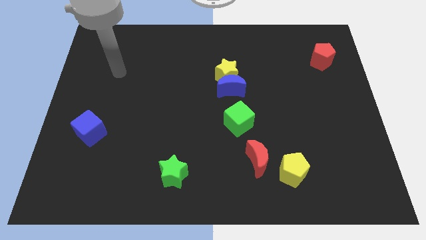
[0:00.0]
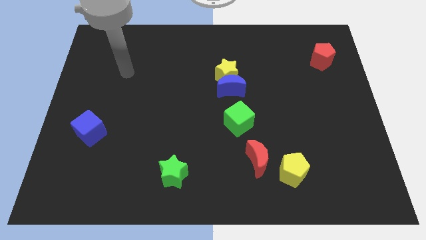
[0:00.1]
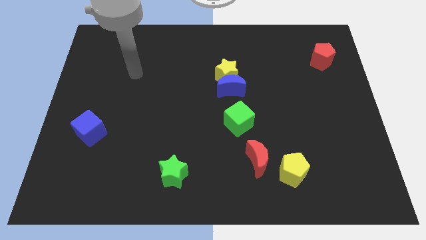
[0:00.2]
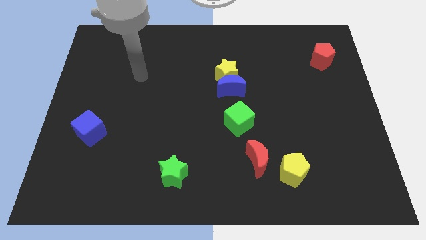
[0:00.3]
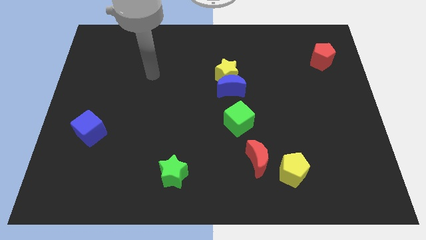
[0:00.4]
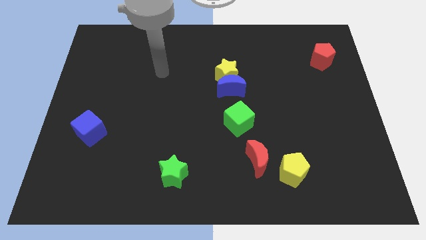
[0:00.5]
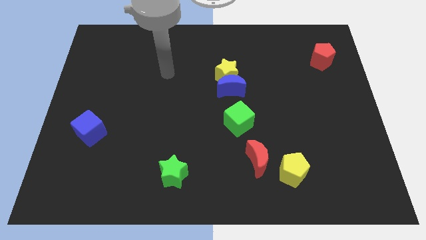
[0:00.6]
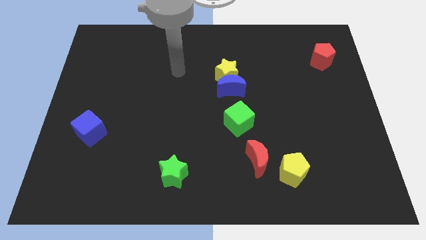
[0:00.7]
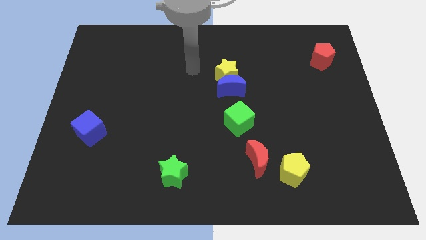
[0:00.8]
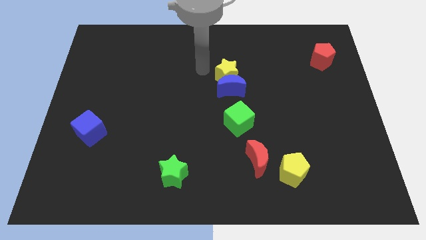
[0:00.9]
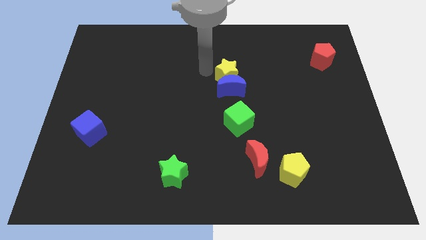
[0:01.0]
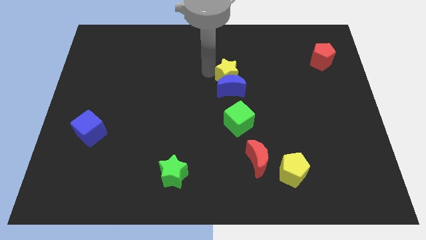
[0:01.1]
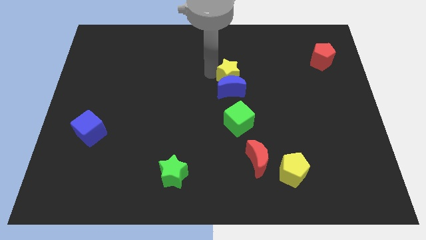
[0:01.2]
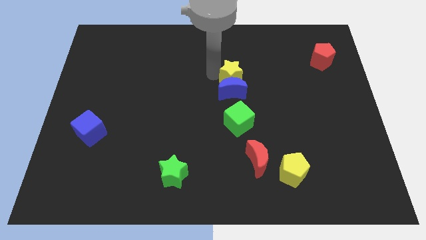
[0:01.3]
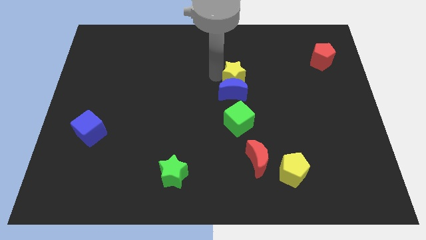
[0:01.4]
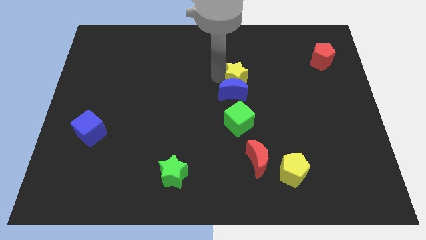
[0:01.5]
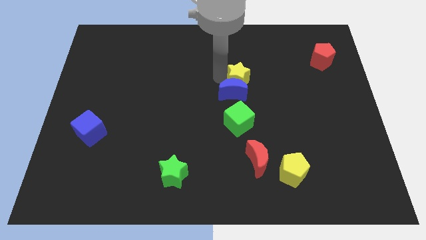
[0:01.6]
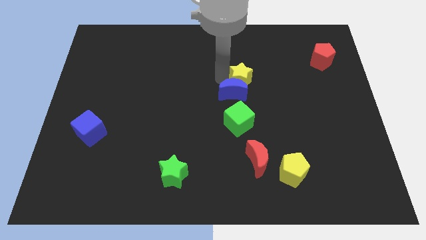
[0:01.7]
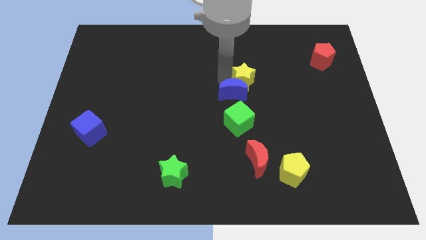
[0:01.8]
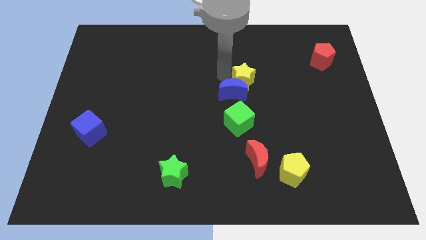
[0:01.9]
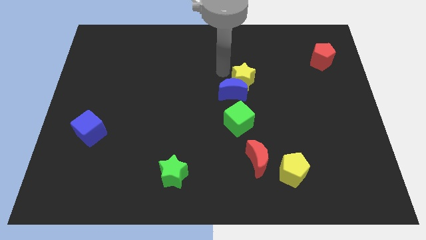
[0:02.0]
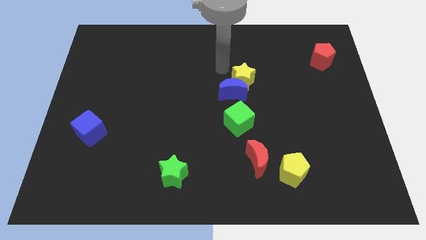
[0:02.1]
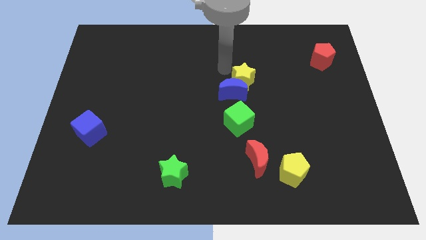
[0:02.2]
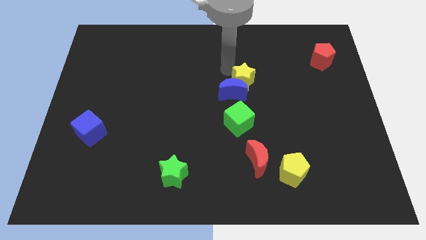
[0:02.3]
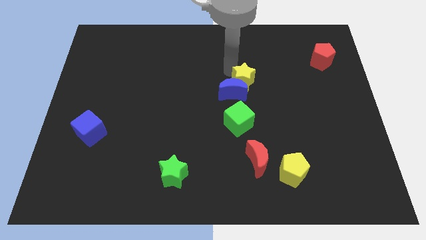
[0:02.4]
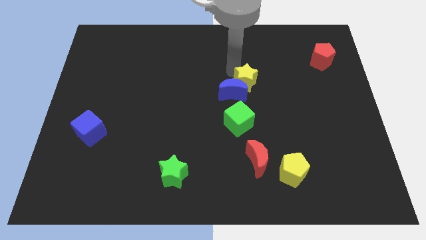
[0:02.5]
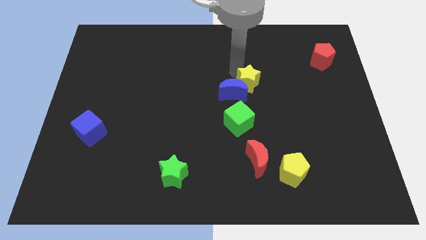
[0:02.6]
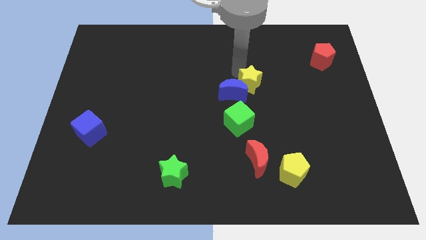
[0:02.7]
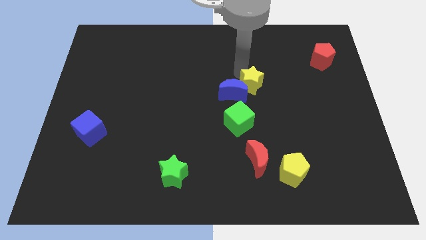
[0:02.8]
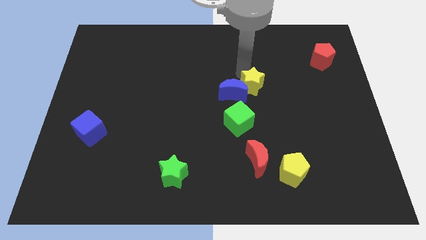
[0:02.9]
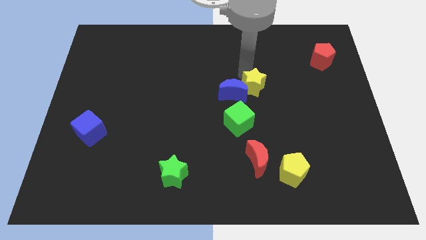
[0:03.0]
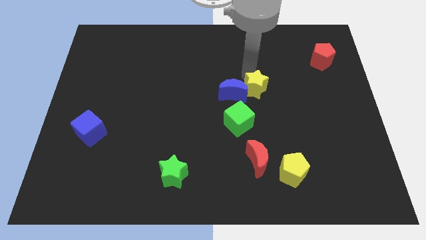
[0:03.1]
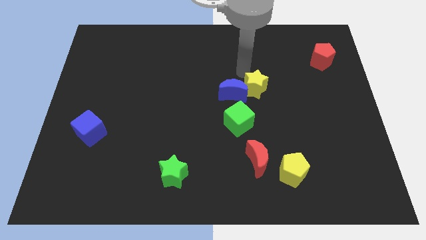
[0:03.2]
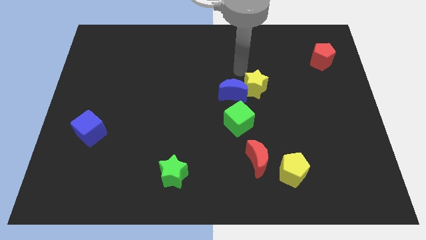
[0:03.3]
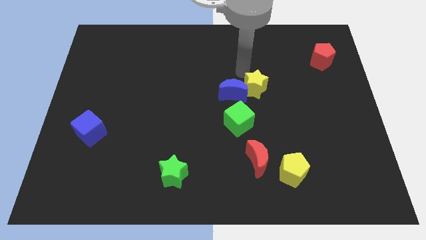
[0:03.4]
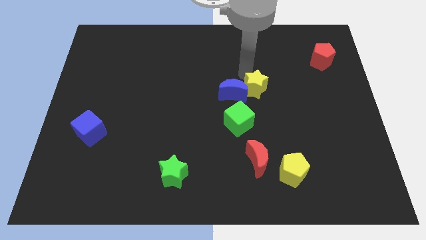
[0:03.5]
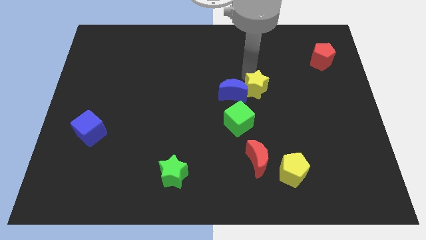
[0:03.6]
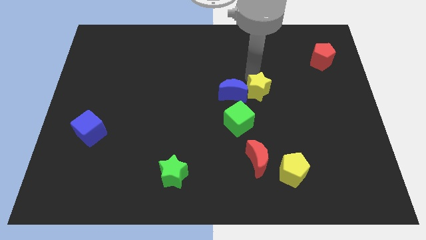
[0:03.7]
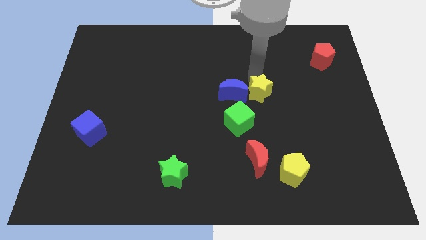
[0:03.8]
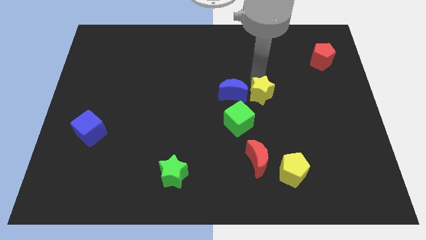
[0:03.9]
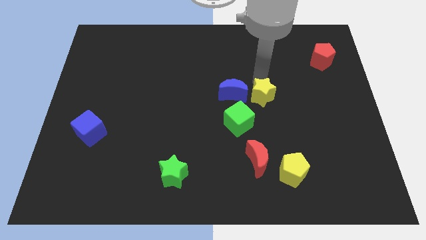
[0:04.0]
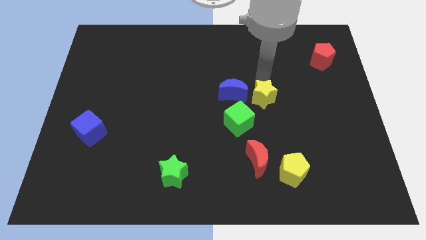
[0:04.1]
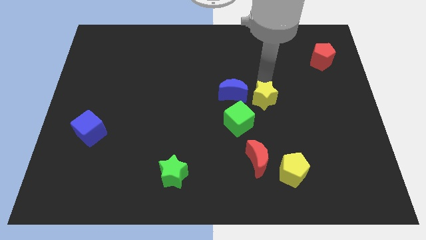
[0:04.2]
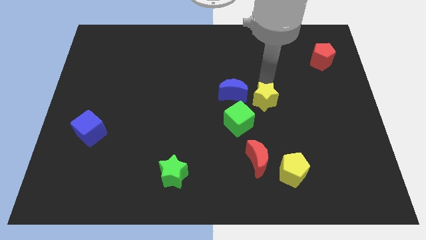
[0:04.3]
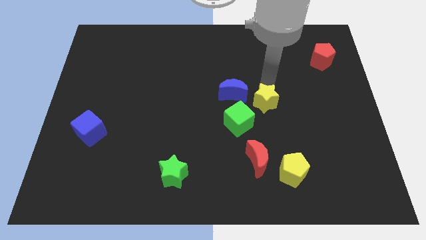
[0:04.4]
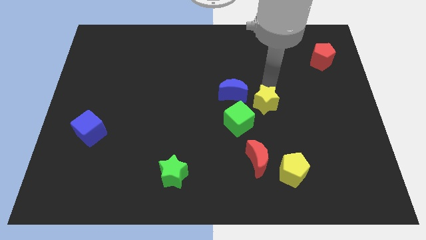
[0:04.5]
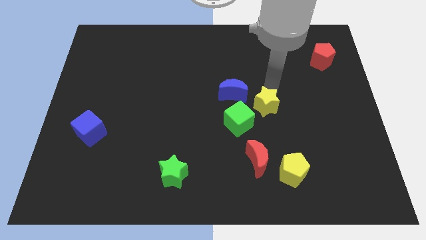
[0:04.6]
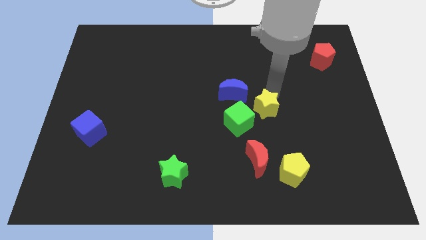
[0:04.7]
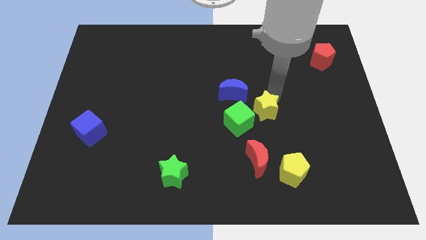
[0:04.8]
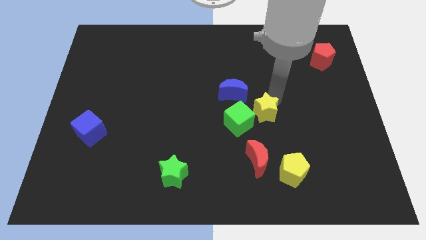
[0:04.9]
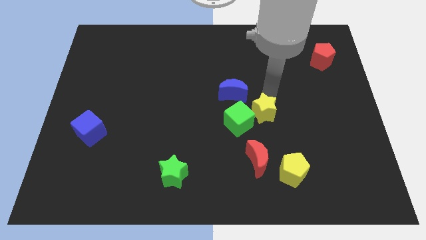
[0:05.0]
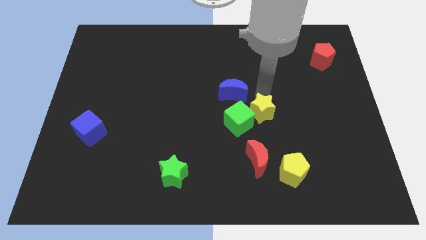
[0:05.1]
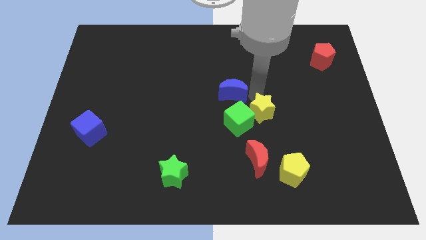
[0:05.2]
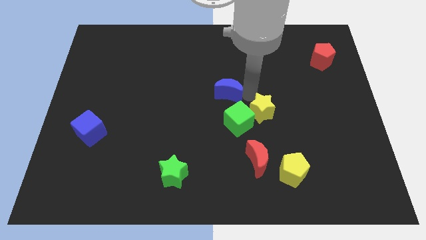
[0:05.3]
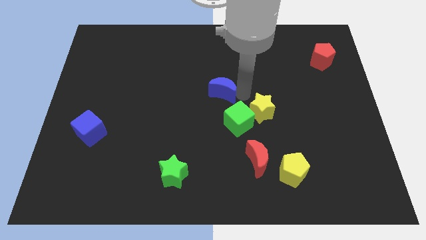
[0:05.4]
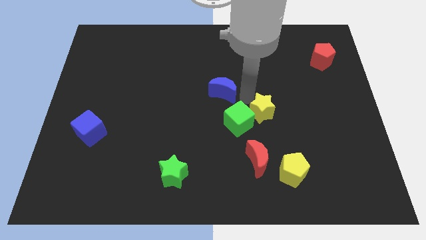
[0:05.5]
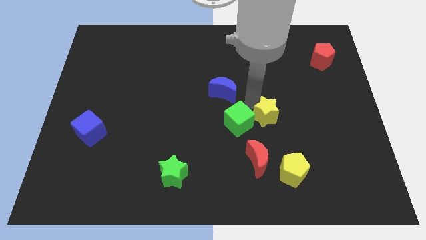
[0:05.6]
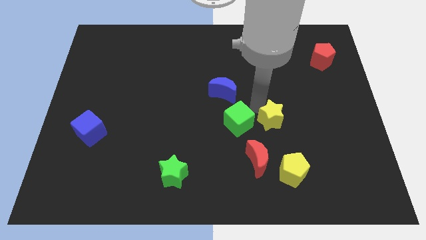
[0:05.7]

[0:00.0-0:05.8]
put the yellow star above the yellow pentagon

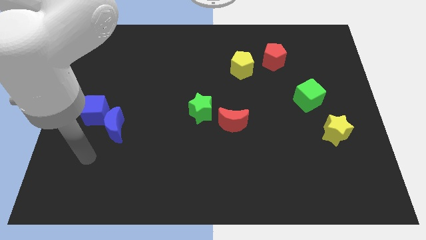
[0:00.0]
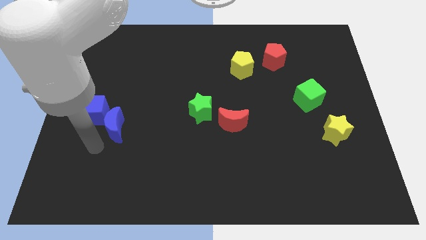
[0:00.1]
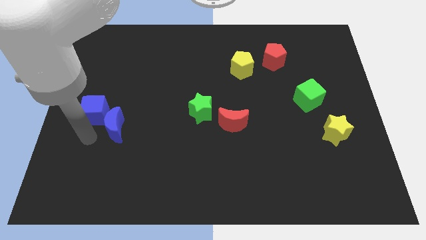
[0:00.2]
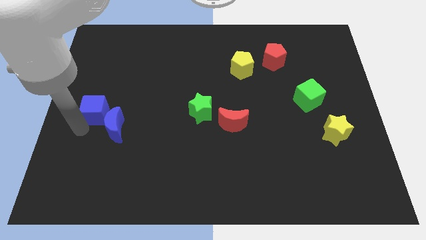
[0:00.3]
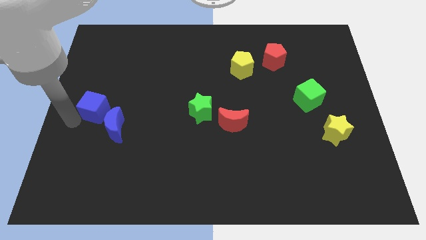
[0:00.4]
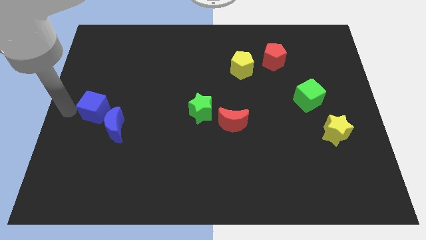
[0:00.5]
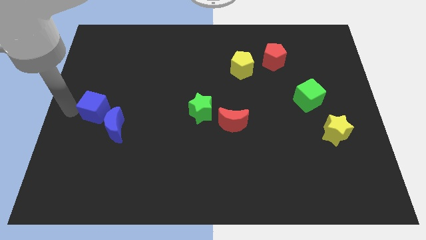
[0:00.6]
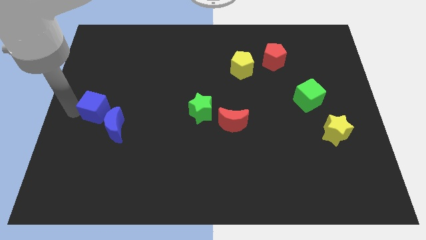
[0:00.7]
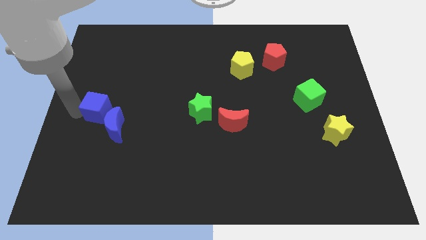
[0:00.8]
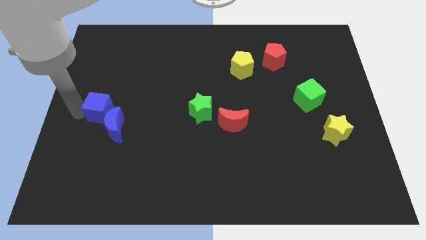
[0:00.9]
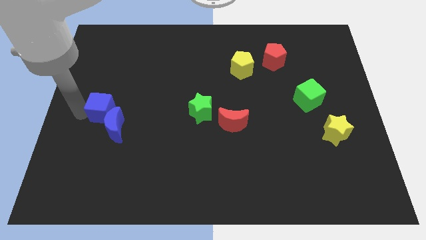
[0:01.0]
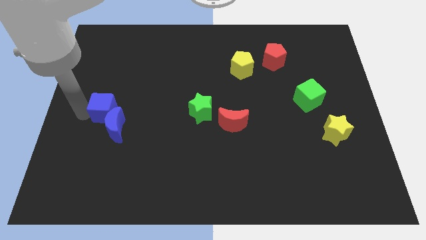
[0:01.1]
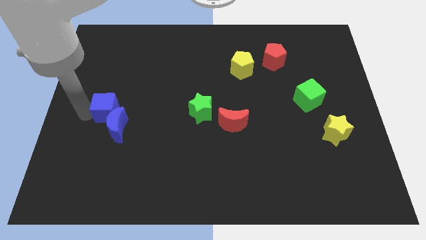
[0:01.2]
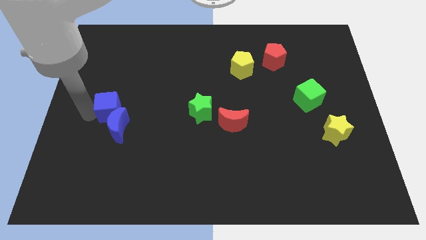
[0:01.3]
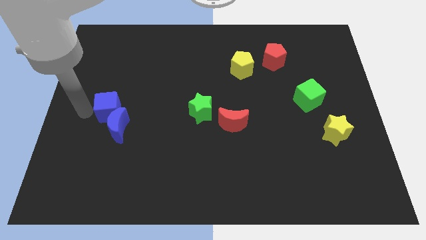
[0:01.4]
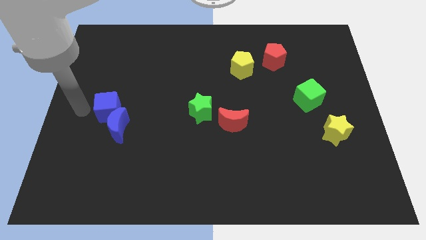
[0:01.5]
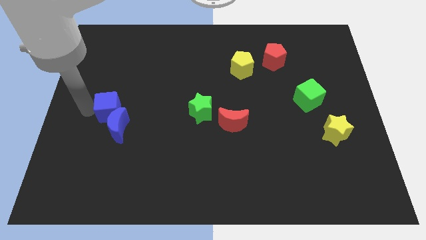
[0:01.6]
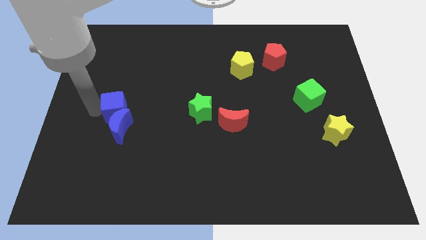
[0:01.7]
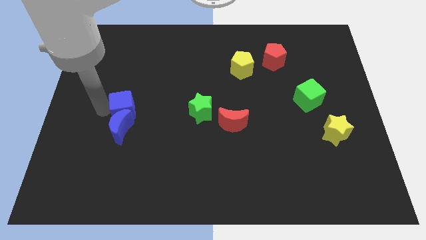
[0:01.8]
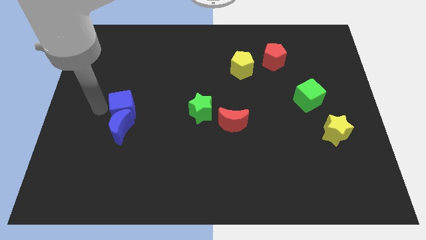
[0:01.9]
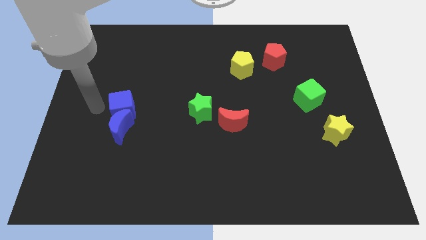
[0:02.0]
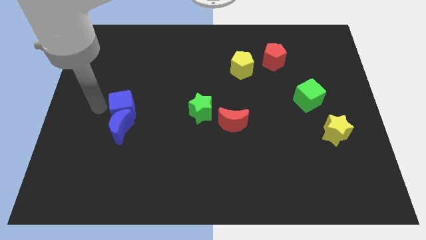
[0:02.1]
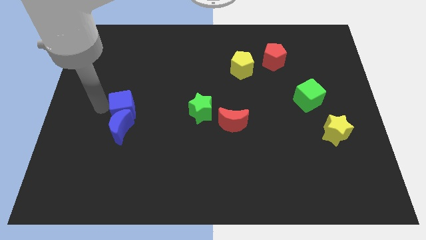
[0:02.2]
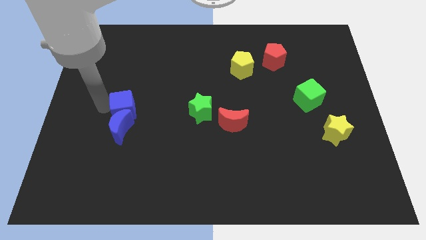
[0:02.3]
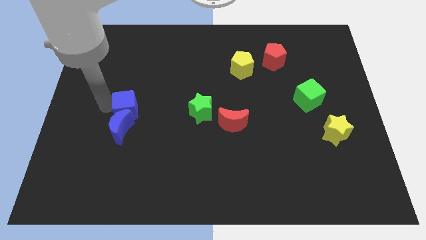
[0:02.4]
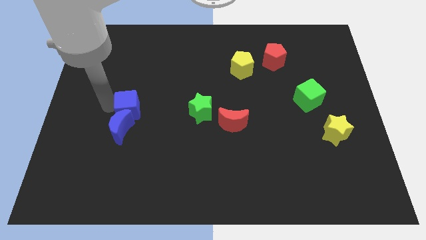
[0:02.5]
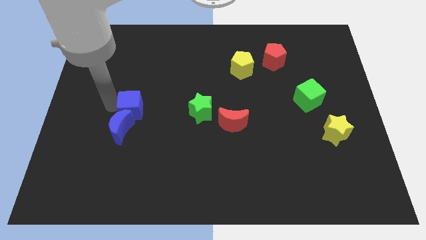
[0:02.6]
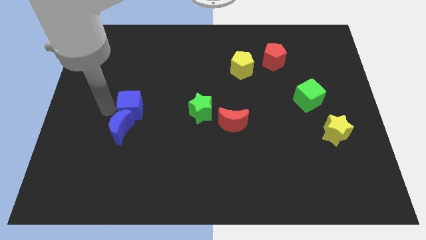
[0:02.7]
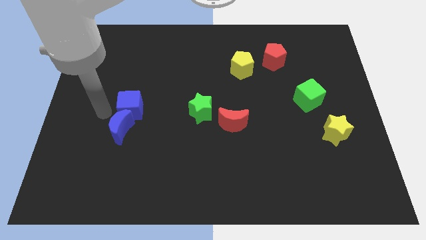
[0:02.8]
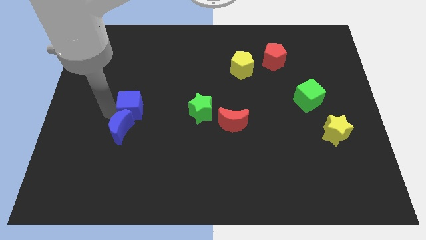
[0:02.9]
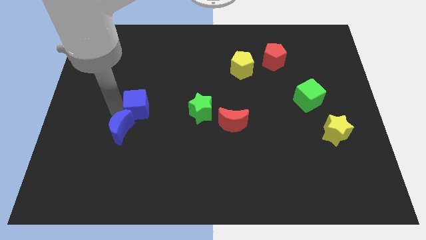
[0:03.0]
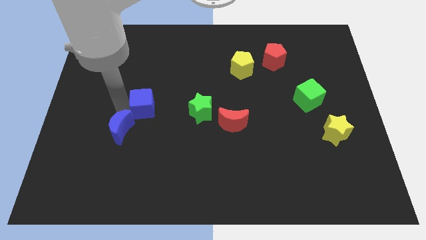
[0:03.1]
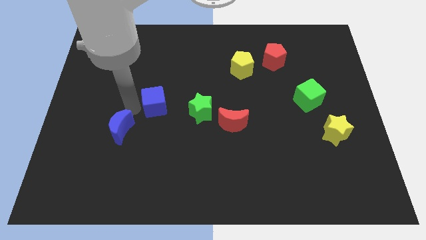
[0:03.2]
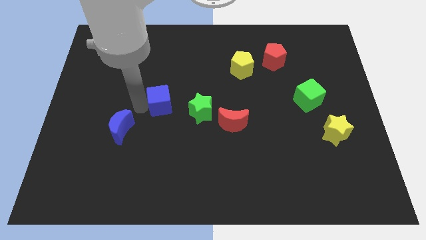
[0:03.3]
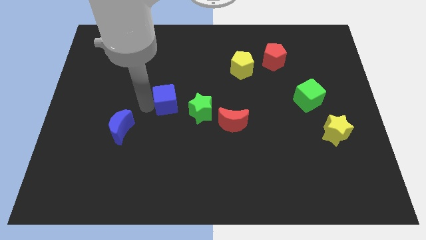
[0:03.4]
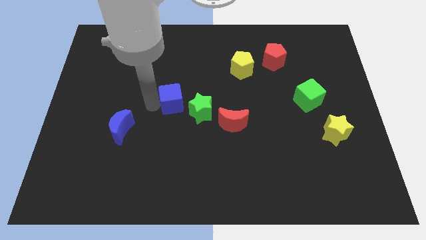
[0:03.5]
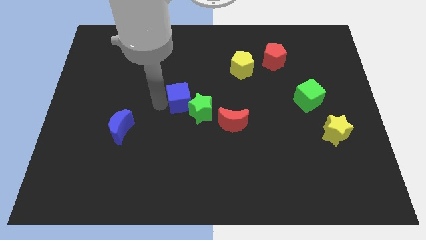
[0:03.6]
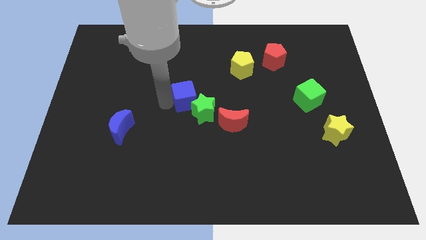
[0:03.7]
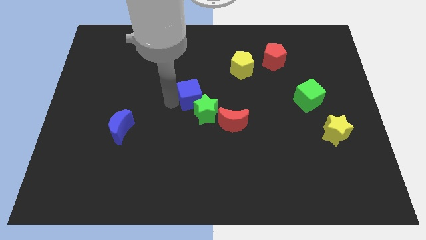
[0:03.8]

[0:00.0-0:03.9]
move the blue cube diagonally up and to the left of the red moon
